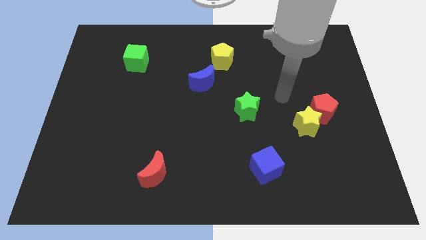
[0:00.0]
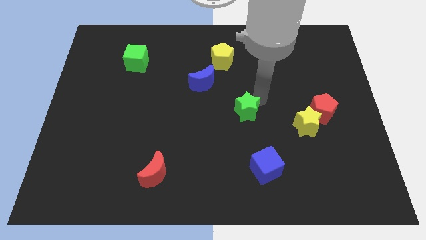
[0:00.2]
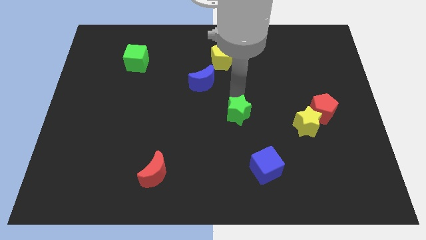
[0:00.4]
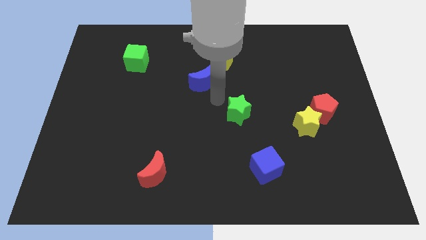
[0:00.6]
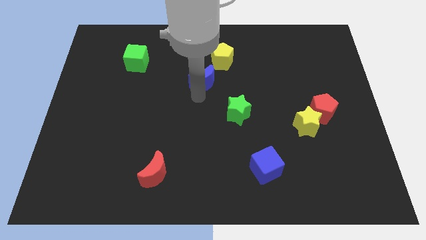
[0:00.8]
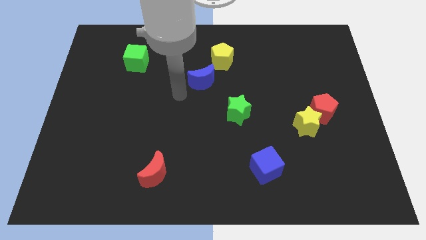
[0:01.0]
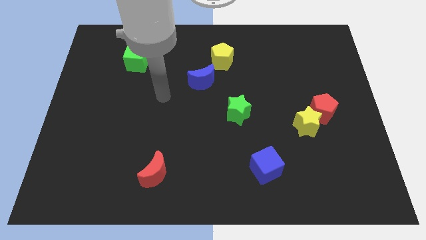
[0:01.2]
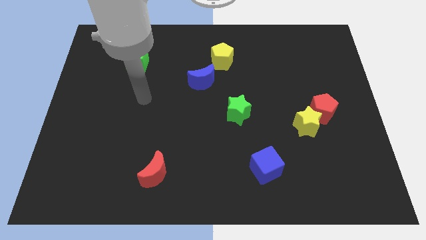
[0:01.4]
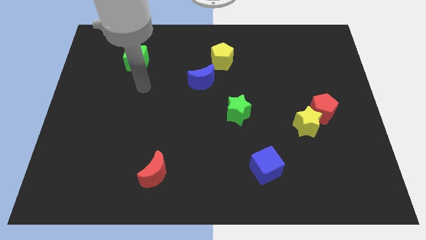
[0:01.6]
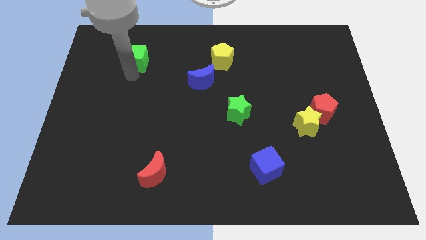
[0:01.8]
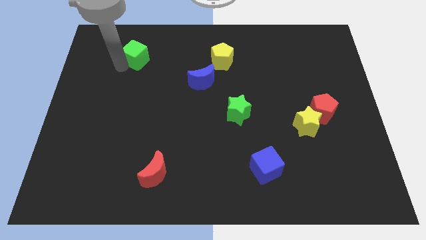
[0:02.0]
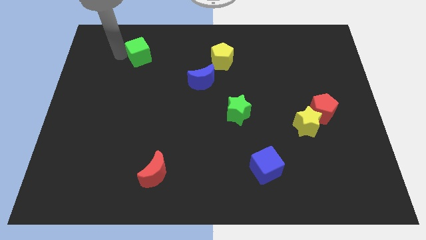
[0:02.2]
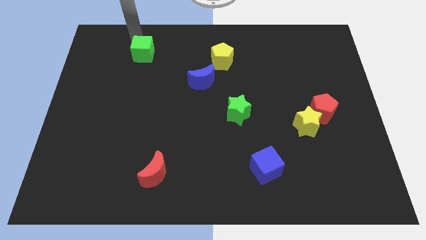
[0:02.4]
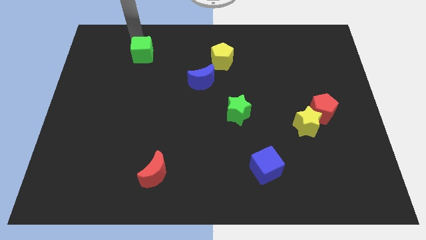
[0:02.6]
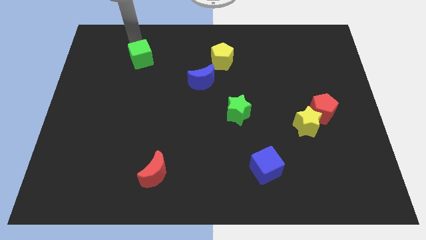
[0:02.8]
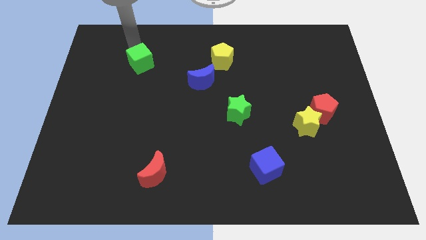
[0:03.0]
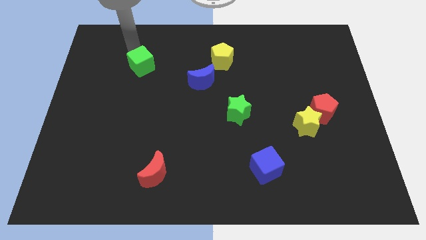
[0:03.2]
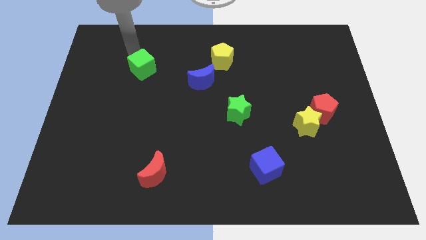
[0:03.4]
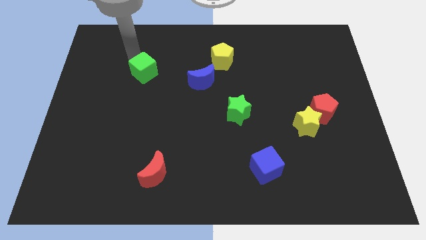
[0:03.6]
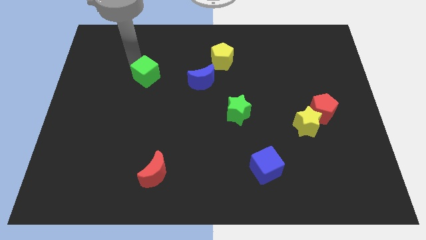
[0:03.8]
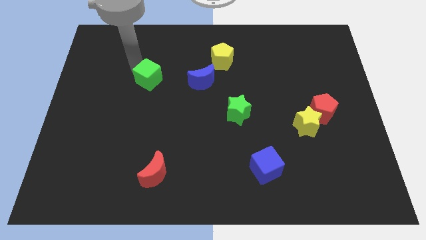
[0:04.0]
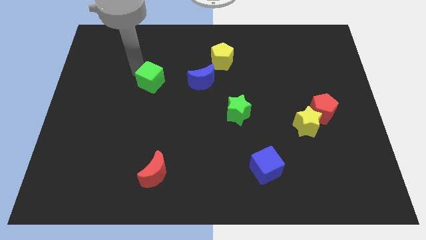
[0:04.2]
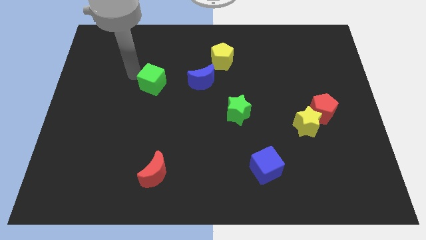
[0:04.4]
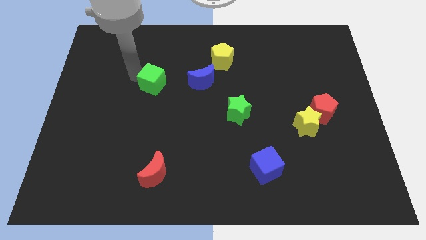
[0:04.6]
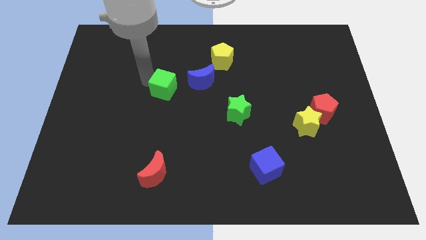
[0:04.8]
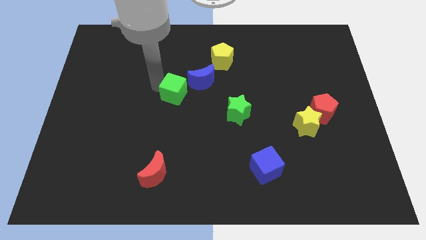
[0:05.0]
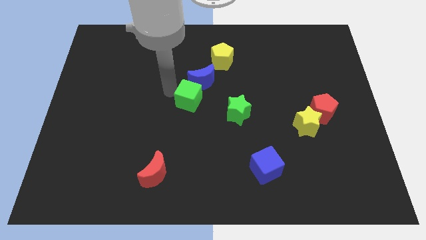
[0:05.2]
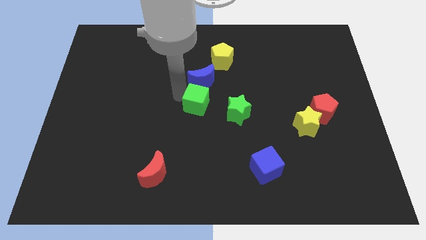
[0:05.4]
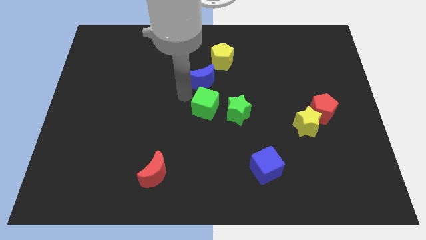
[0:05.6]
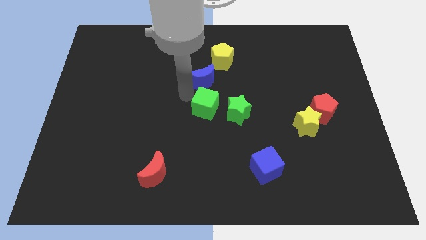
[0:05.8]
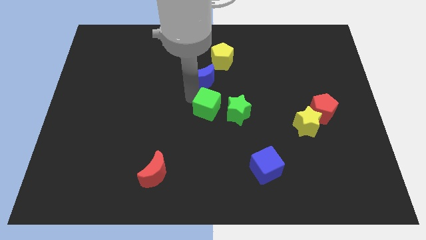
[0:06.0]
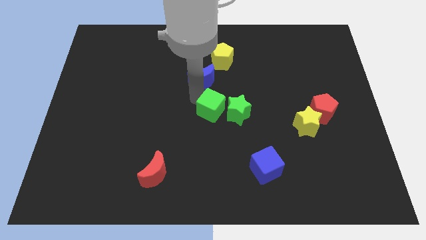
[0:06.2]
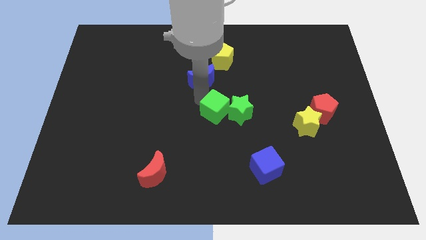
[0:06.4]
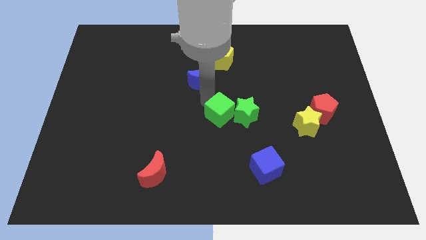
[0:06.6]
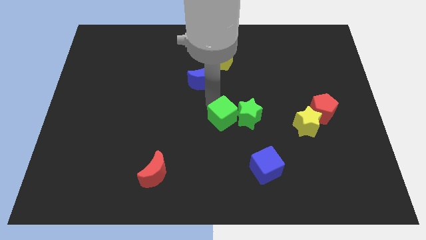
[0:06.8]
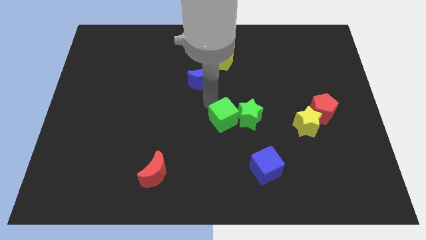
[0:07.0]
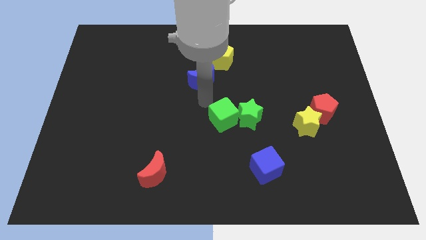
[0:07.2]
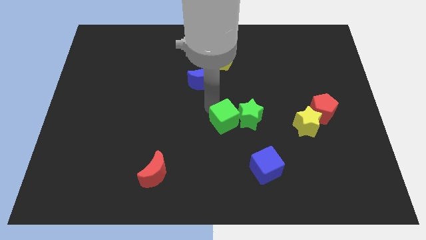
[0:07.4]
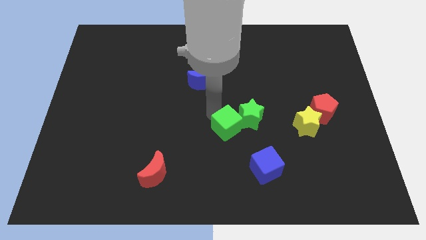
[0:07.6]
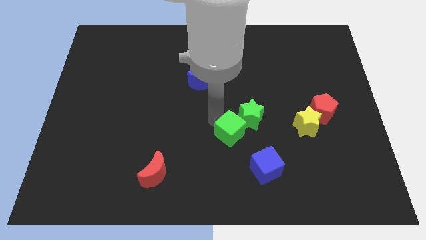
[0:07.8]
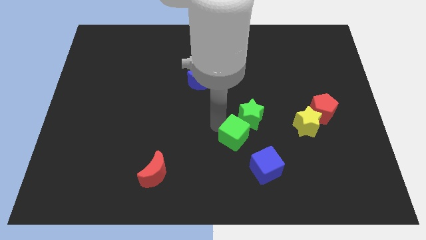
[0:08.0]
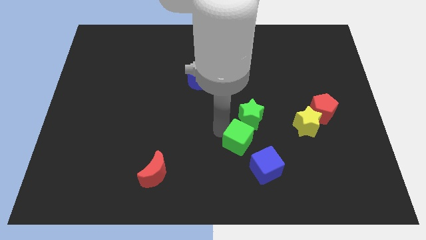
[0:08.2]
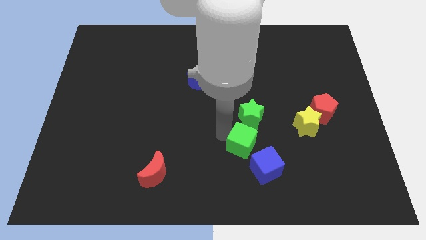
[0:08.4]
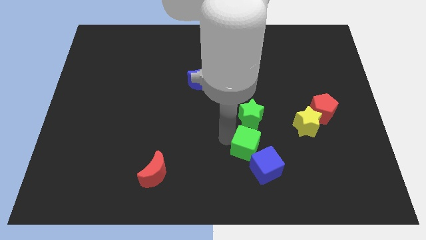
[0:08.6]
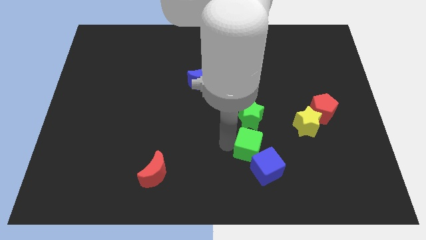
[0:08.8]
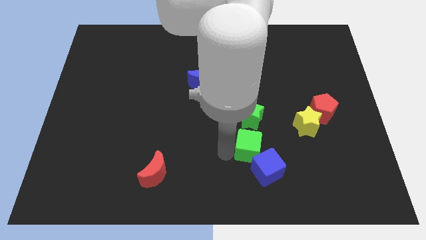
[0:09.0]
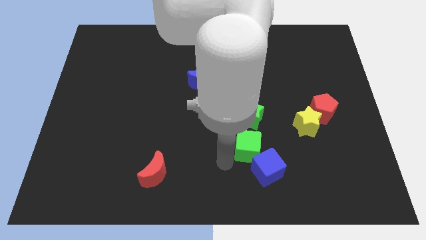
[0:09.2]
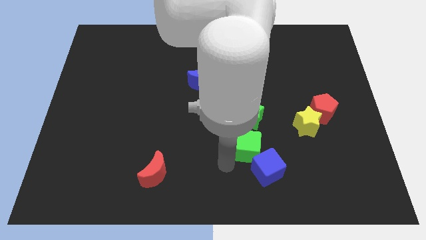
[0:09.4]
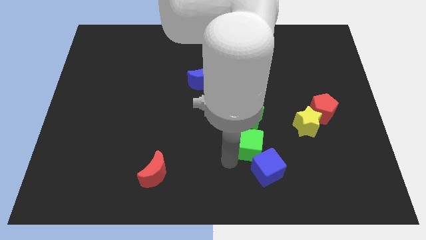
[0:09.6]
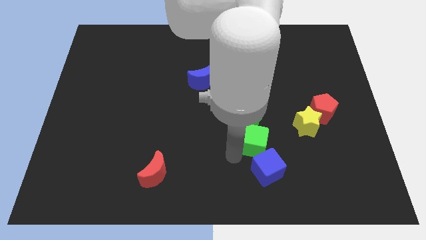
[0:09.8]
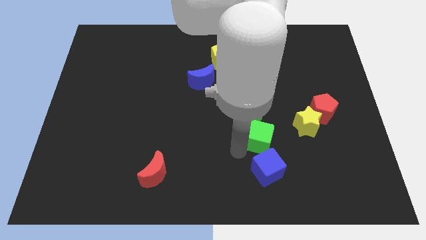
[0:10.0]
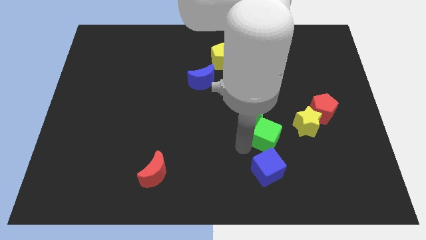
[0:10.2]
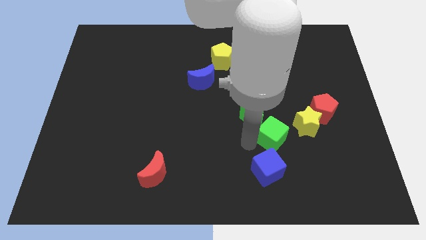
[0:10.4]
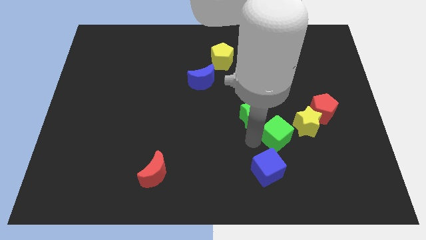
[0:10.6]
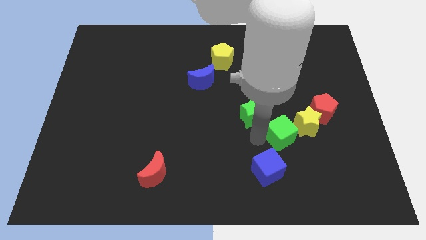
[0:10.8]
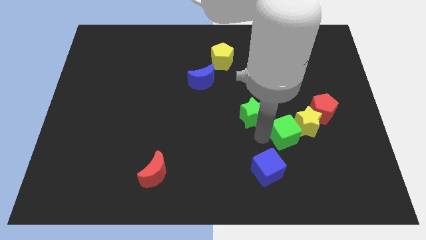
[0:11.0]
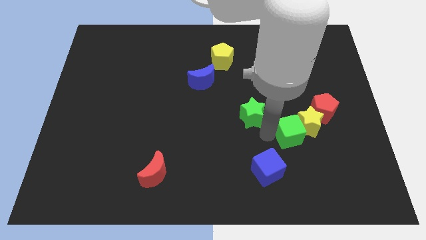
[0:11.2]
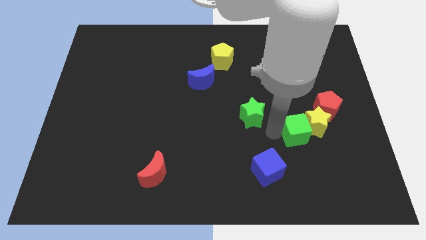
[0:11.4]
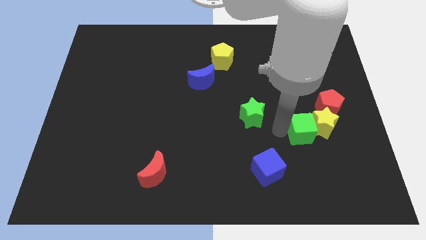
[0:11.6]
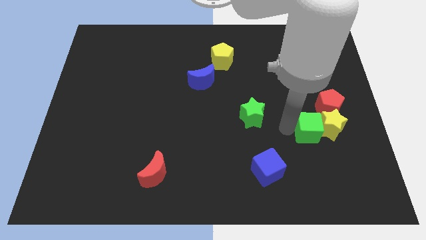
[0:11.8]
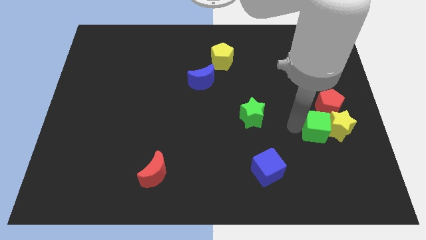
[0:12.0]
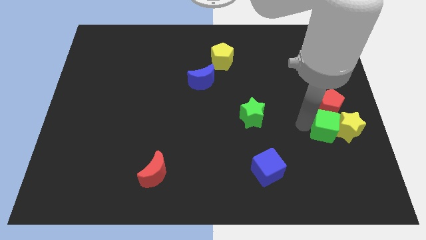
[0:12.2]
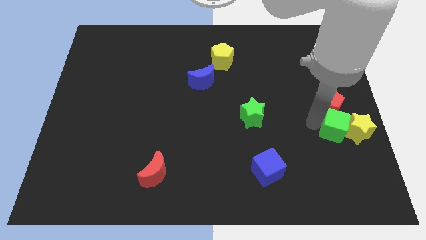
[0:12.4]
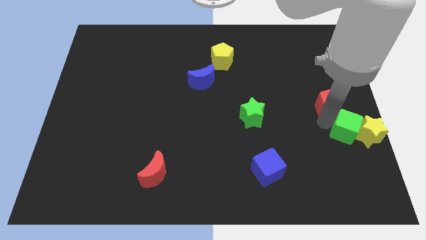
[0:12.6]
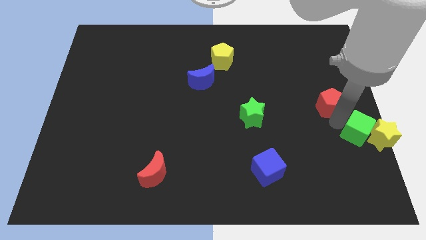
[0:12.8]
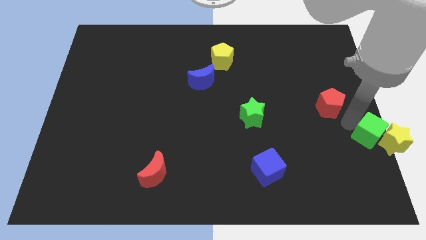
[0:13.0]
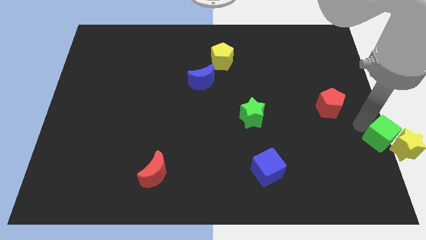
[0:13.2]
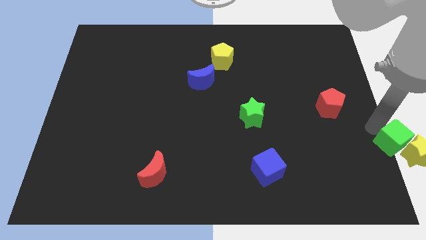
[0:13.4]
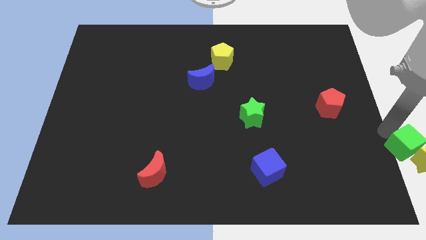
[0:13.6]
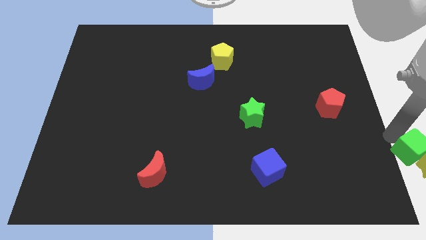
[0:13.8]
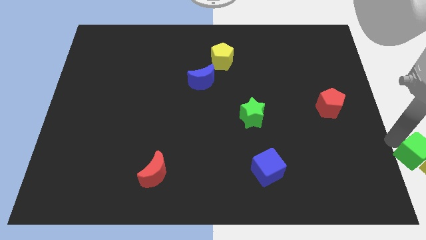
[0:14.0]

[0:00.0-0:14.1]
push the green cube to the lower right corner
